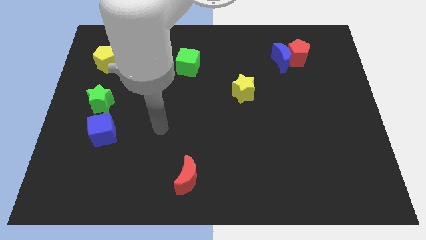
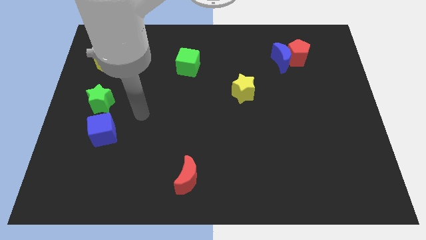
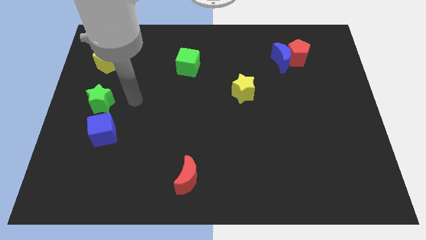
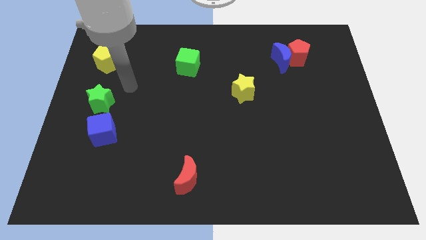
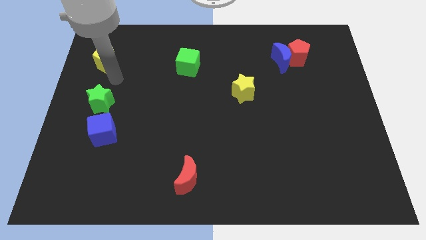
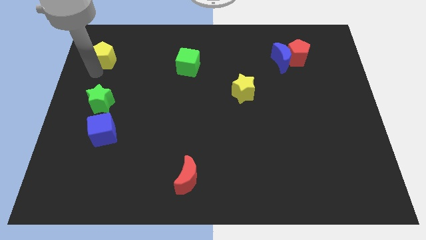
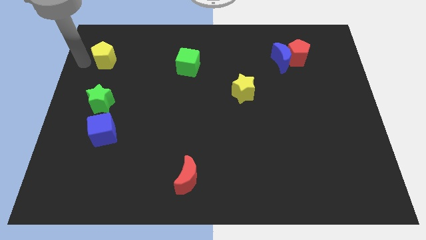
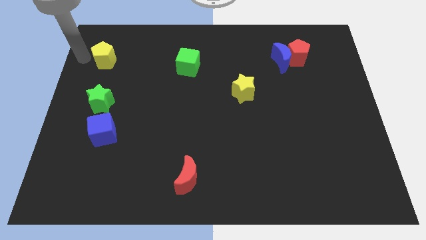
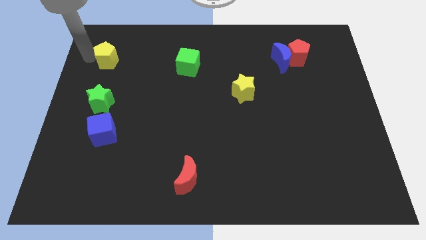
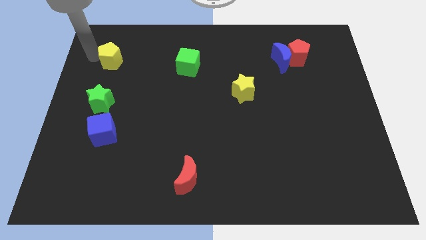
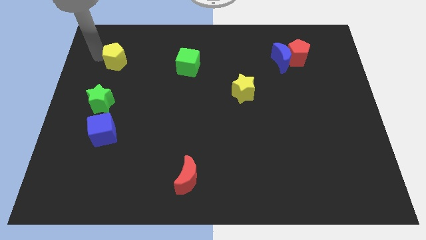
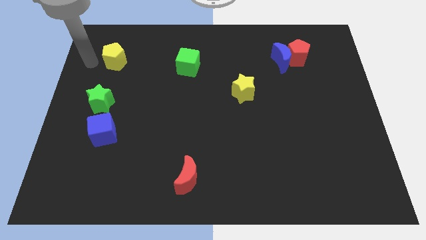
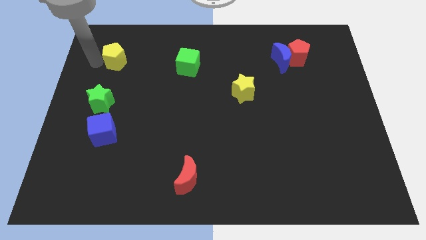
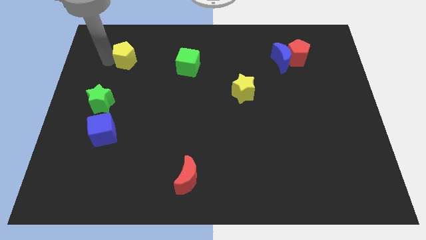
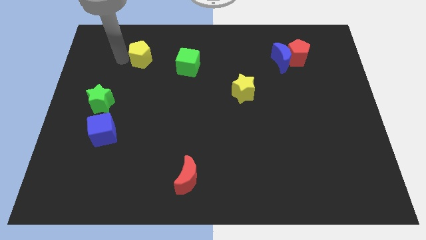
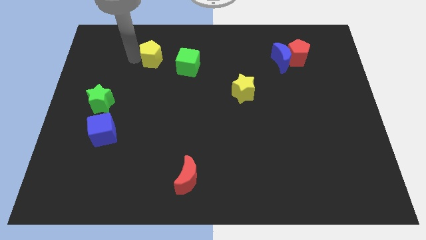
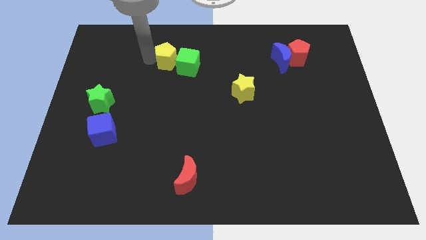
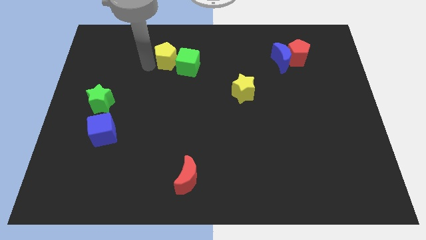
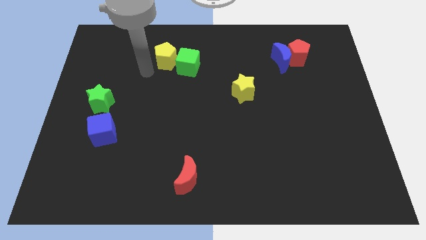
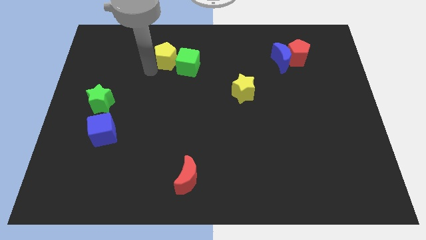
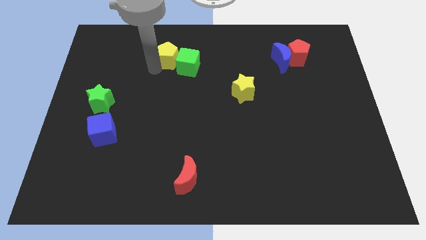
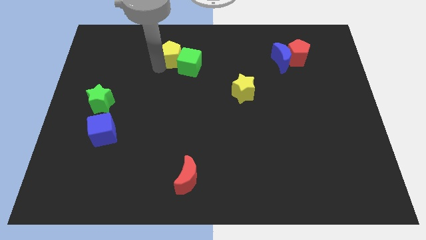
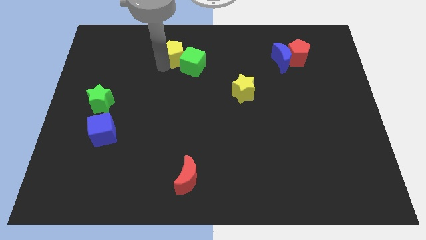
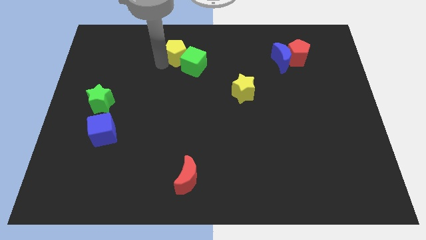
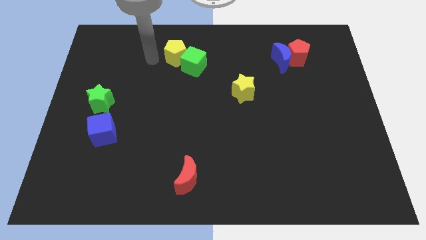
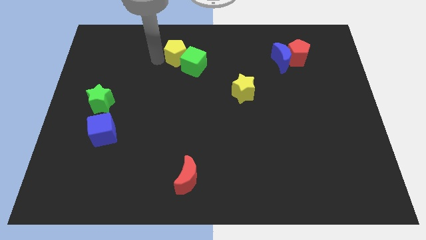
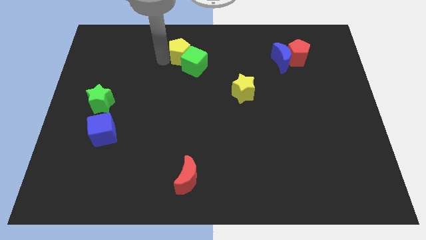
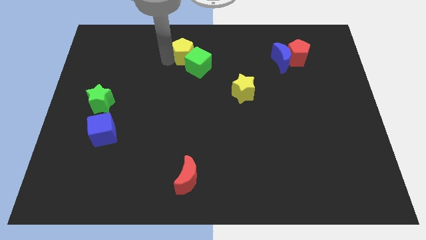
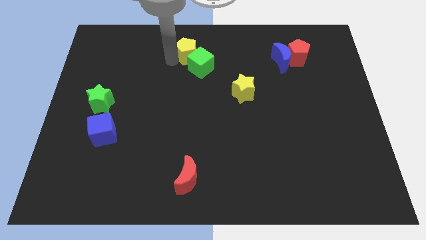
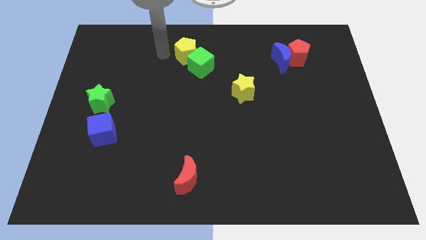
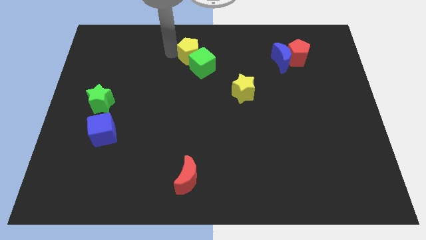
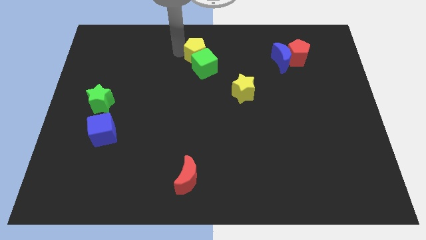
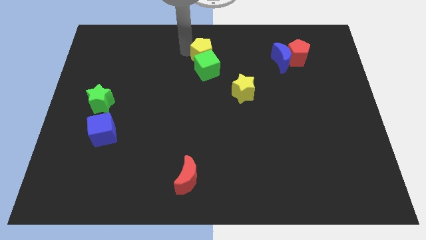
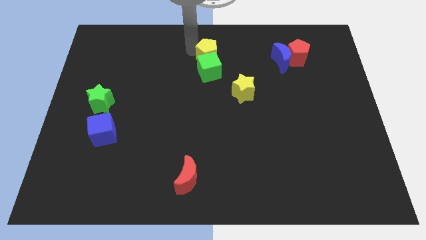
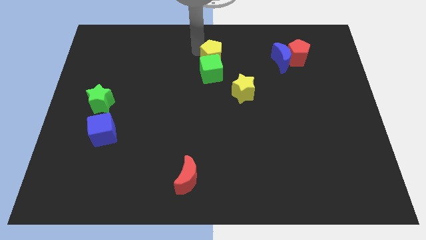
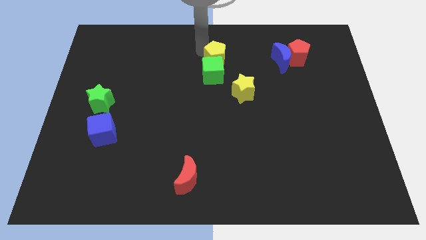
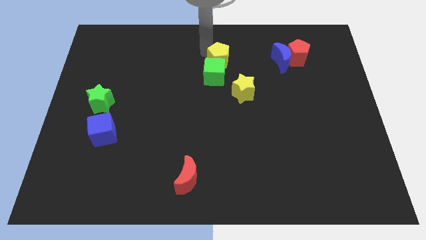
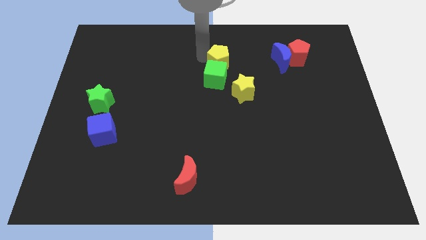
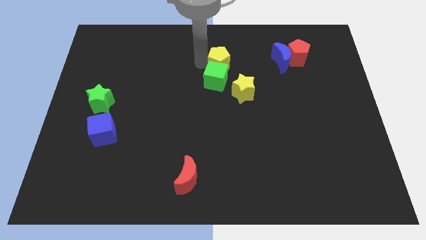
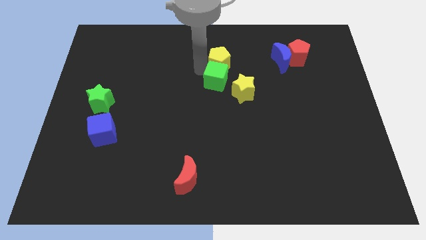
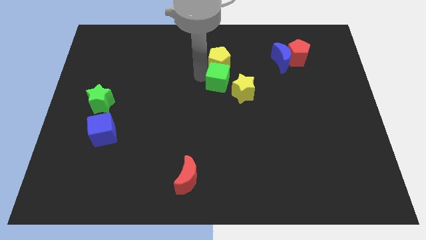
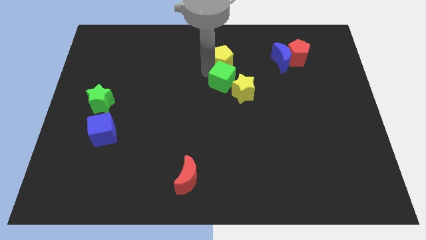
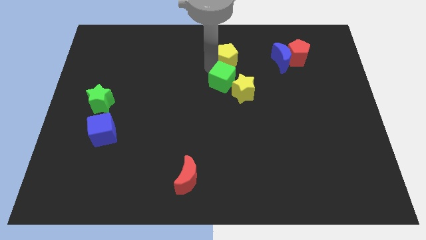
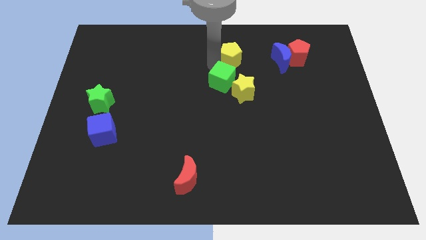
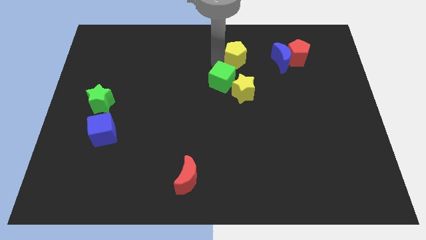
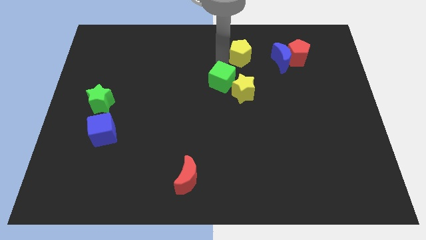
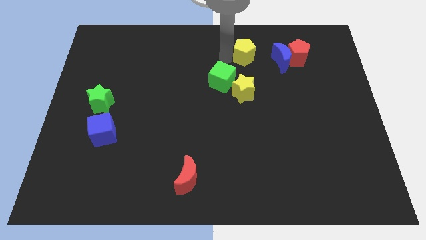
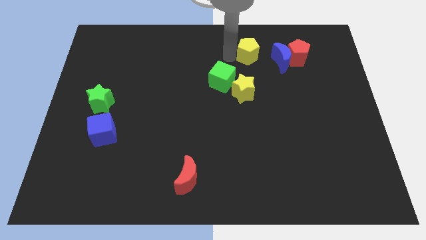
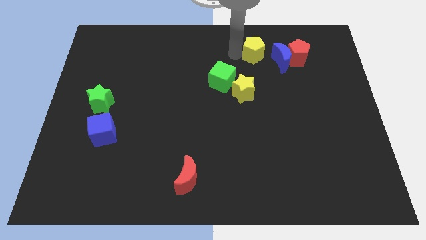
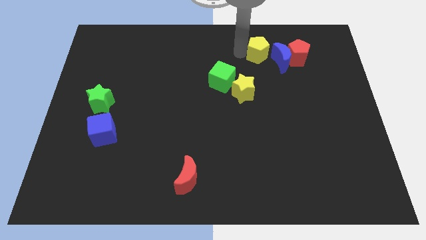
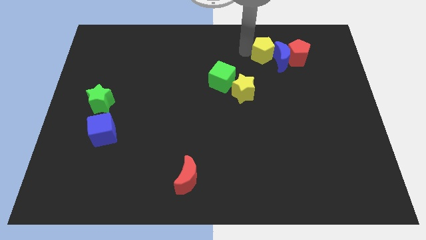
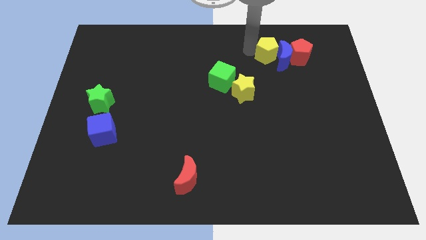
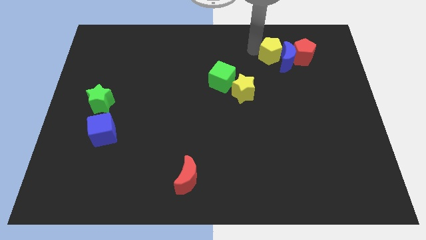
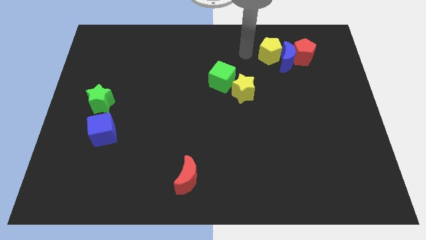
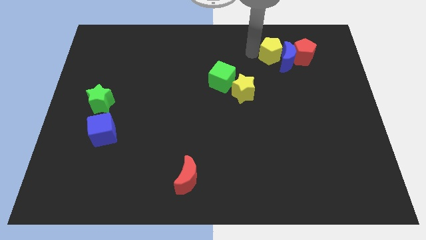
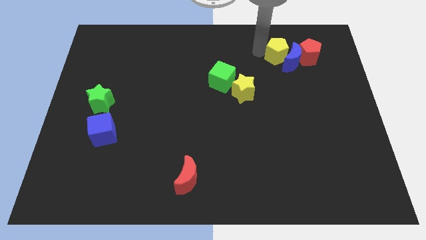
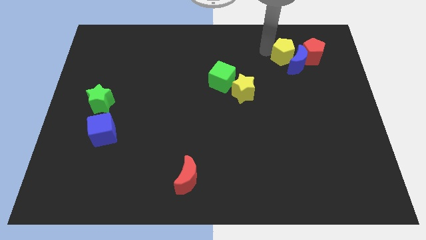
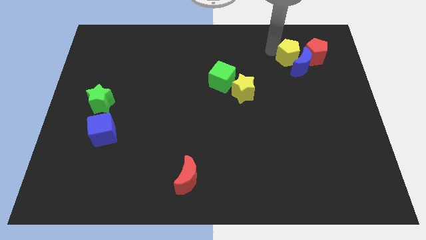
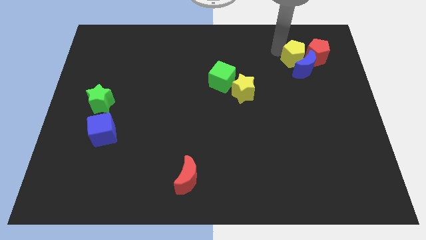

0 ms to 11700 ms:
put the yellow pentagon to the red pentagon

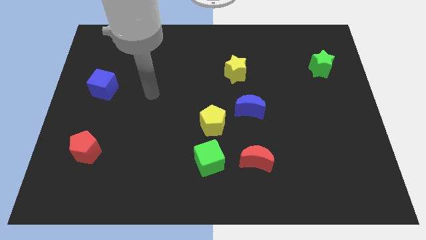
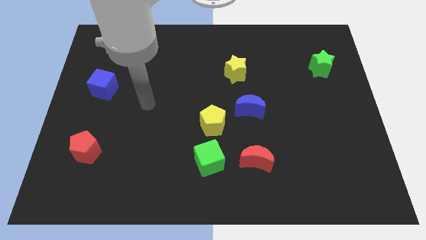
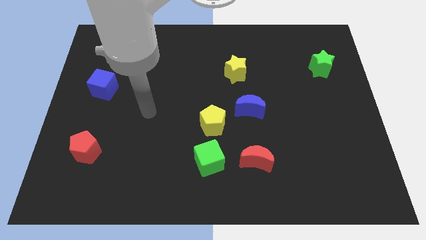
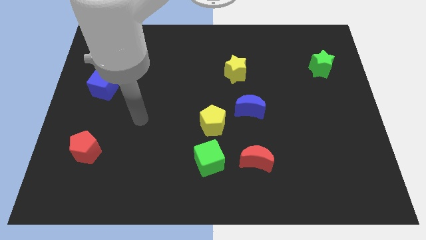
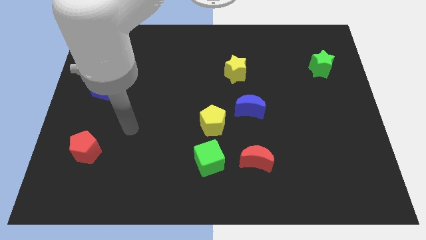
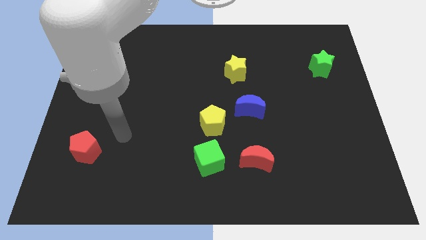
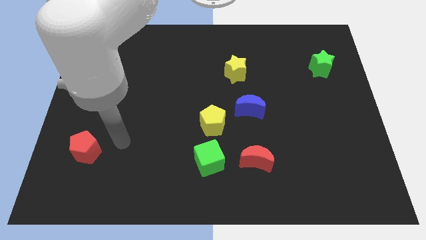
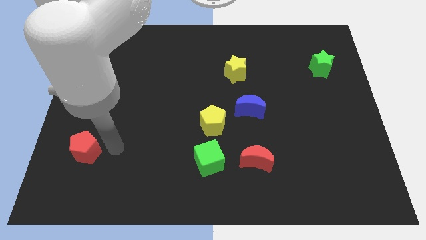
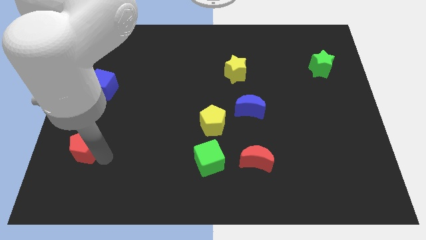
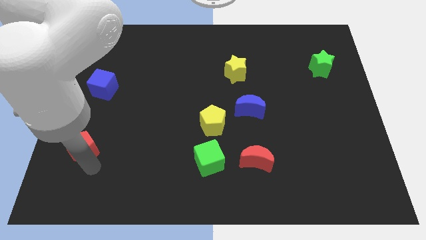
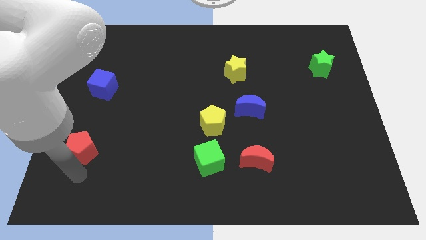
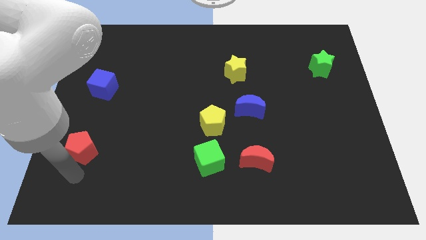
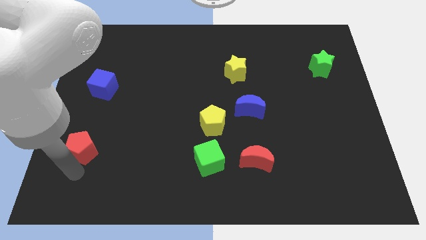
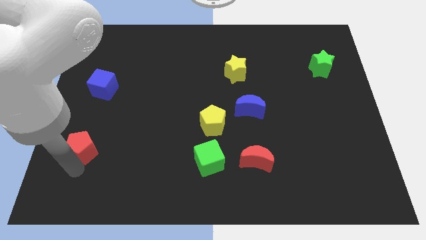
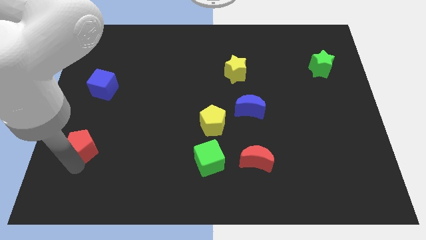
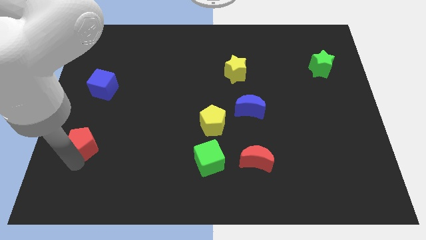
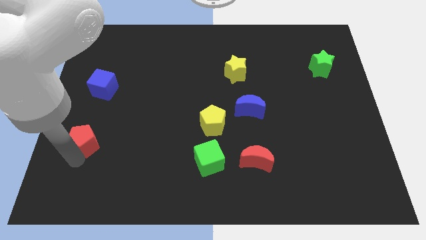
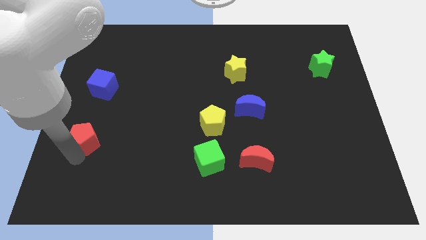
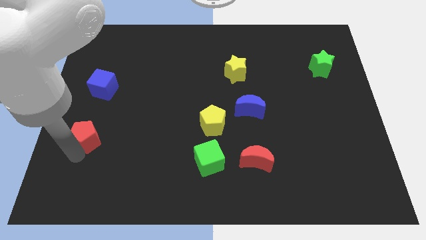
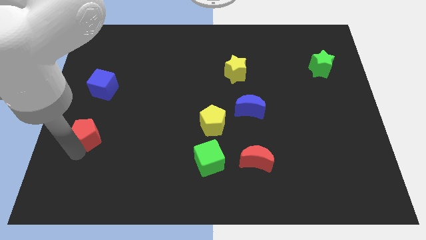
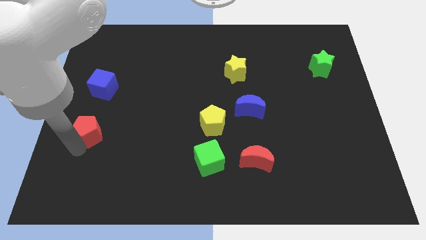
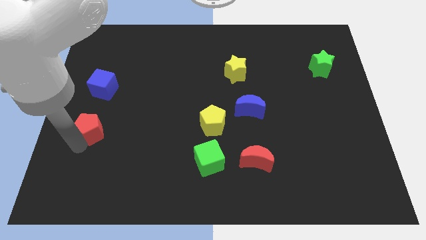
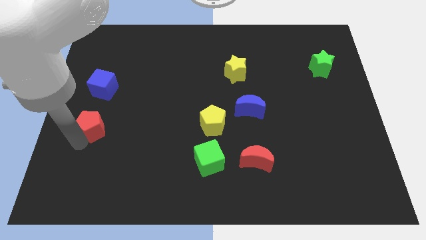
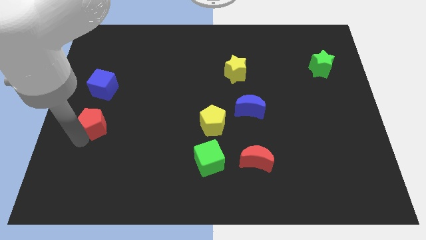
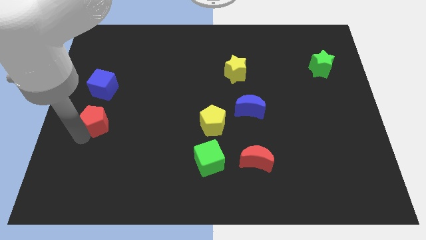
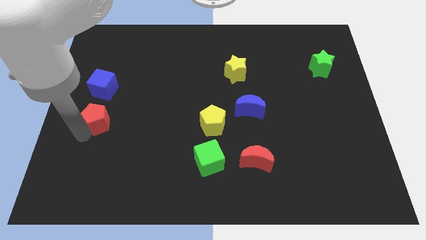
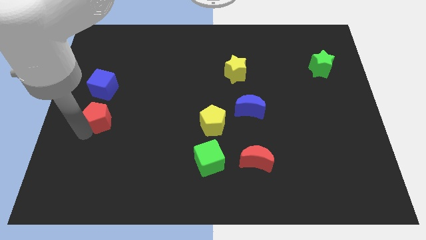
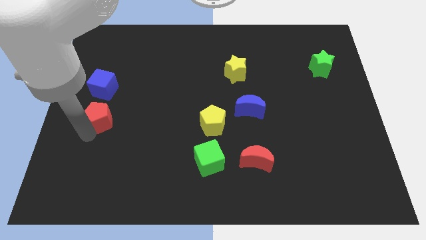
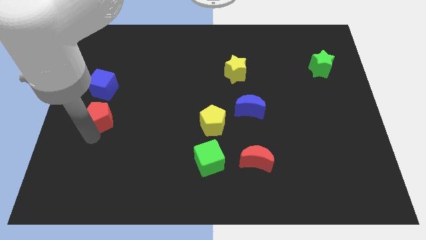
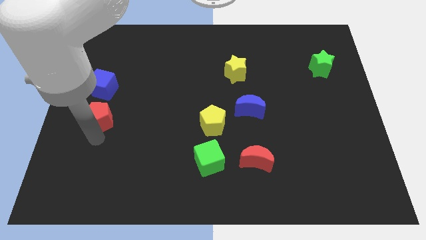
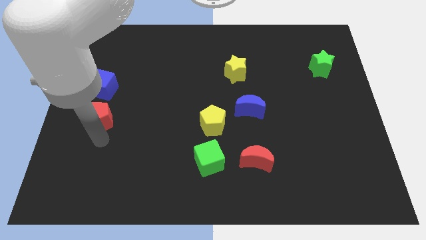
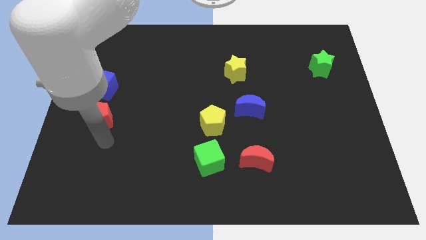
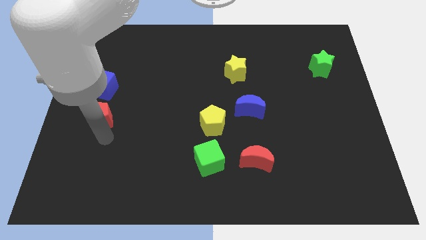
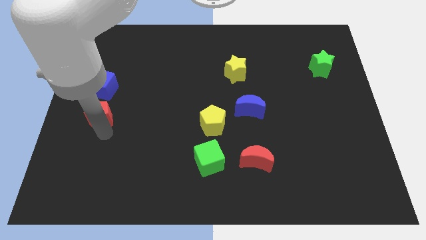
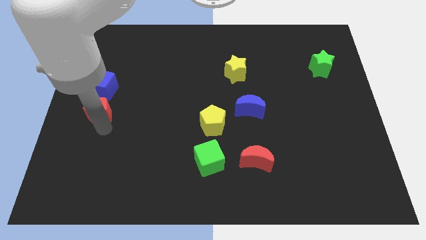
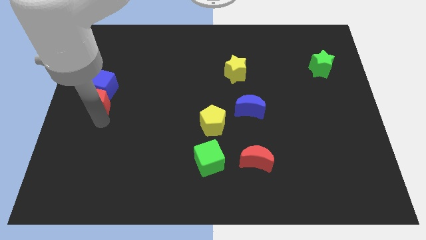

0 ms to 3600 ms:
slide the red pentagon next to the blue cube
